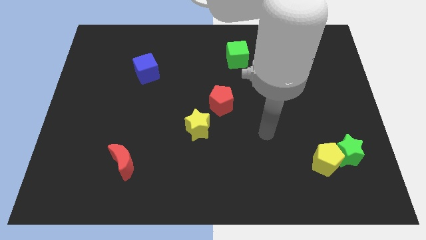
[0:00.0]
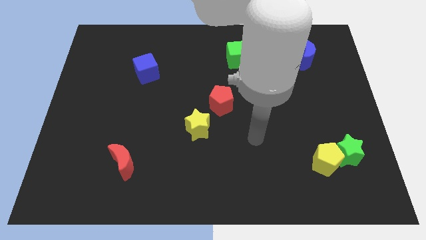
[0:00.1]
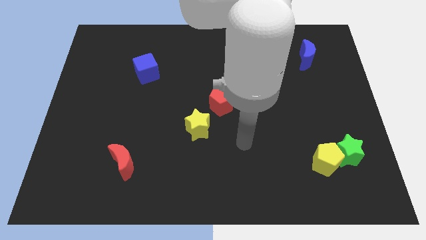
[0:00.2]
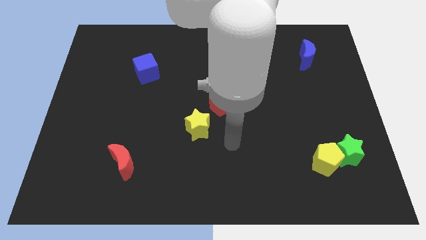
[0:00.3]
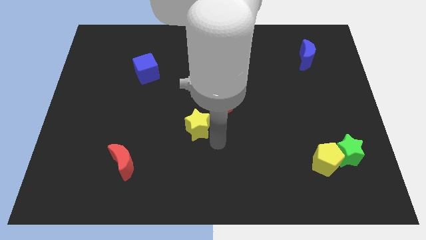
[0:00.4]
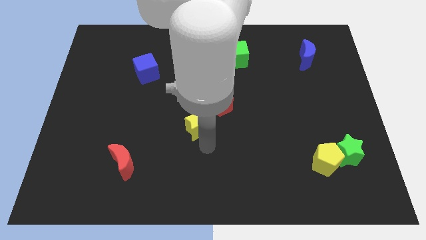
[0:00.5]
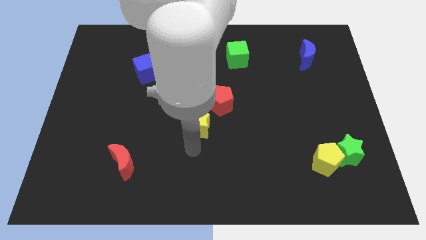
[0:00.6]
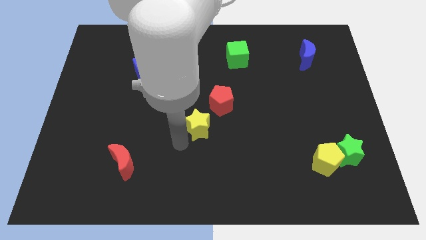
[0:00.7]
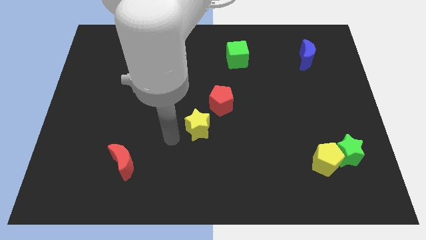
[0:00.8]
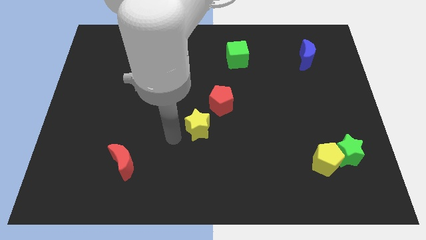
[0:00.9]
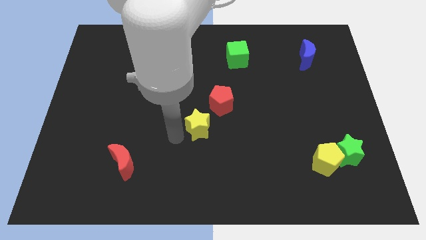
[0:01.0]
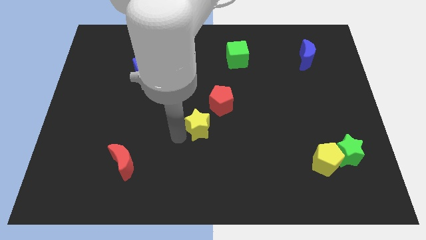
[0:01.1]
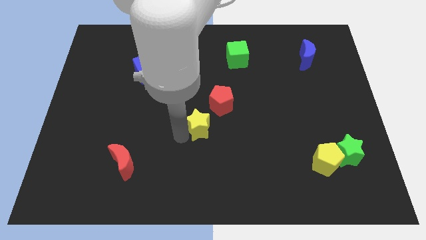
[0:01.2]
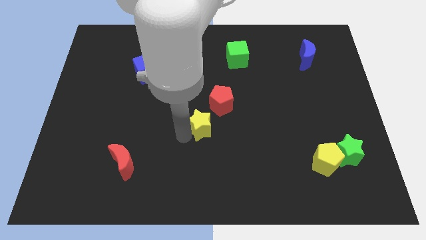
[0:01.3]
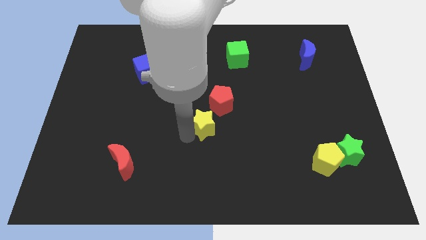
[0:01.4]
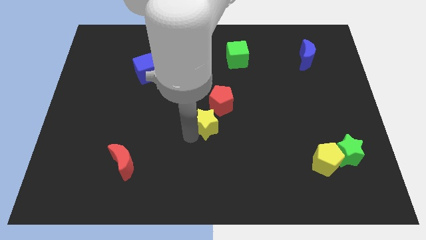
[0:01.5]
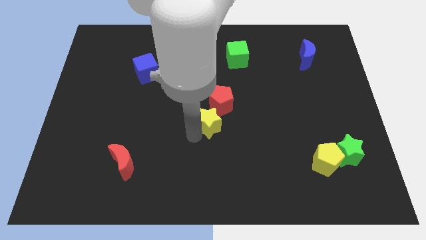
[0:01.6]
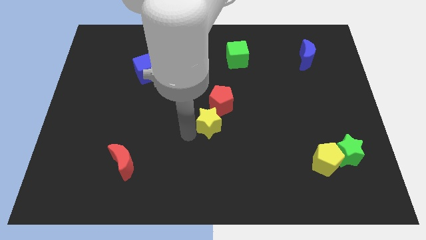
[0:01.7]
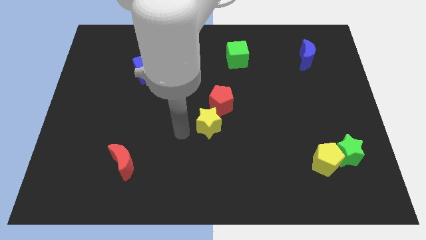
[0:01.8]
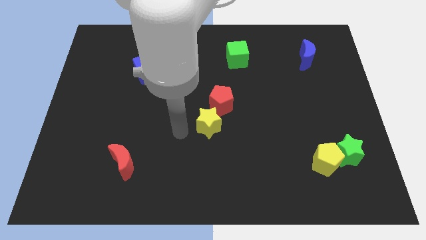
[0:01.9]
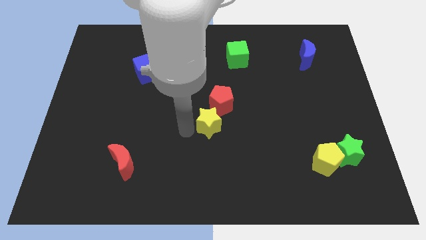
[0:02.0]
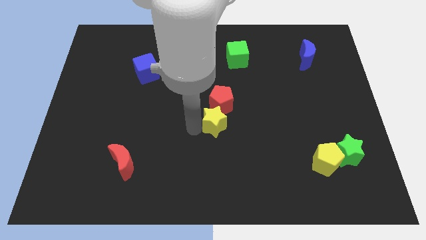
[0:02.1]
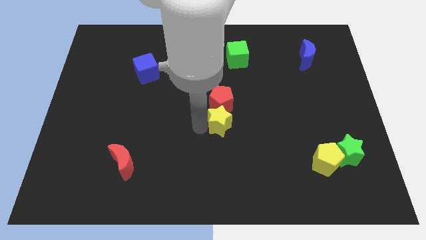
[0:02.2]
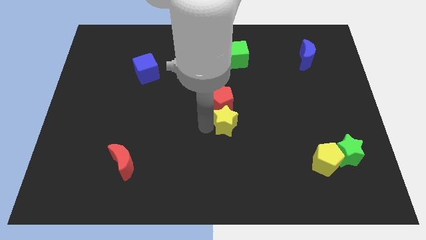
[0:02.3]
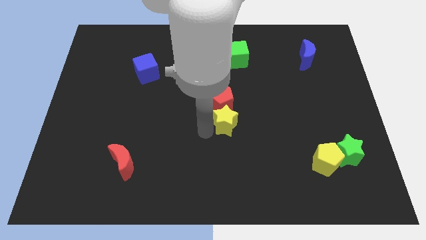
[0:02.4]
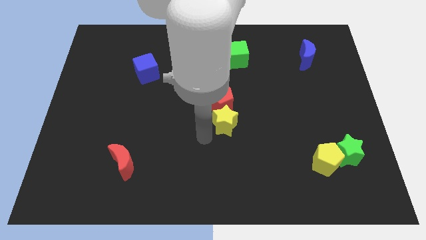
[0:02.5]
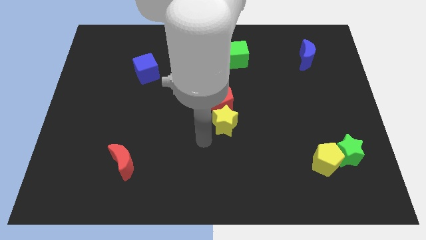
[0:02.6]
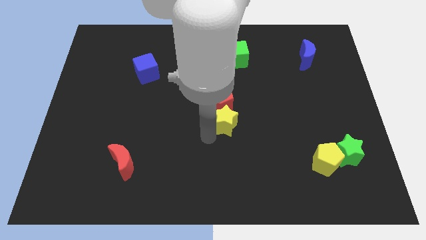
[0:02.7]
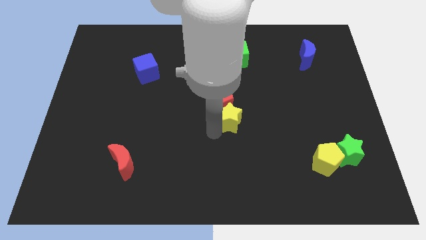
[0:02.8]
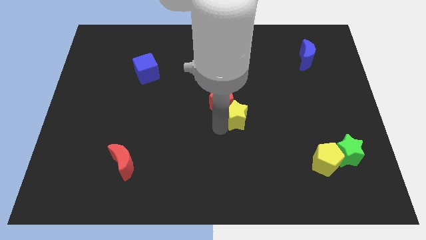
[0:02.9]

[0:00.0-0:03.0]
move the yellow star upwards and then to the right a little bit

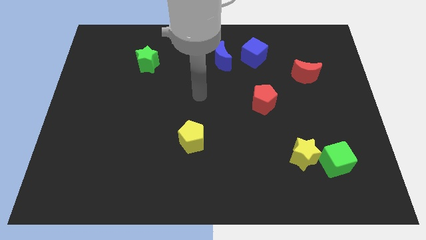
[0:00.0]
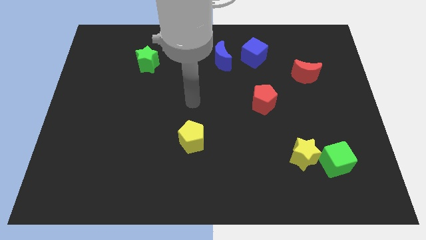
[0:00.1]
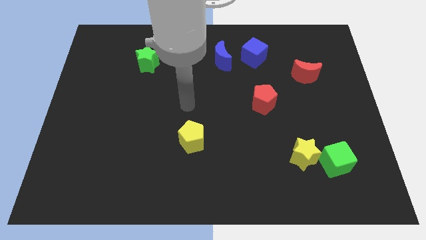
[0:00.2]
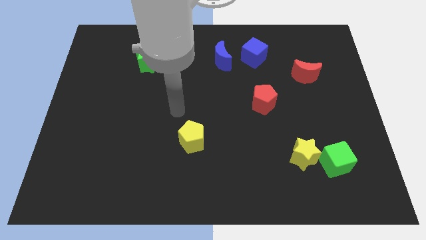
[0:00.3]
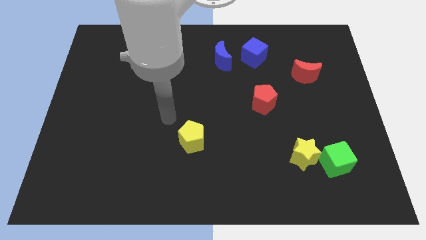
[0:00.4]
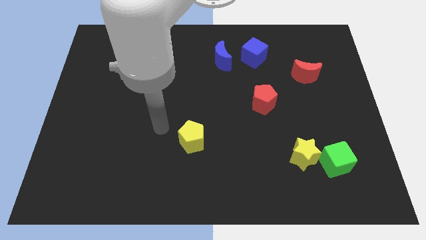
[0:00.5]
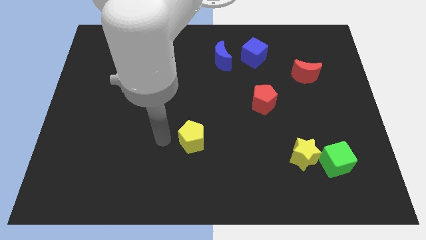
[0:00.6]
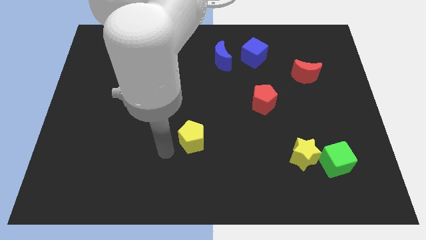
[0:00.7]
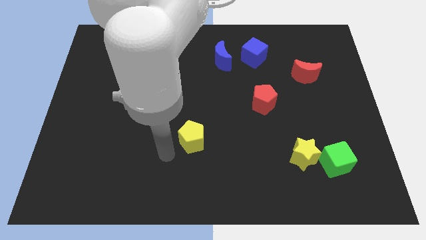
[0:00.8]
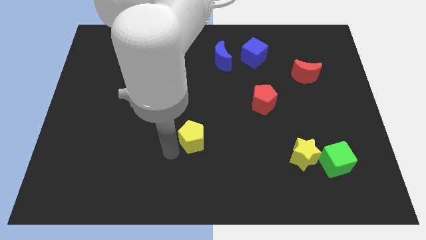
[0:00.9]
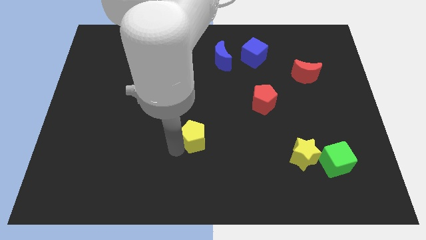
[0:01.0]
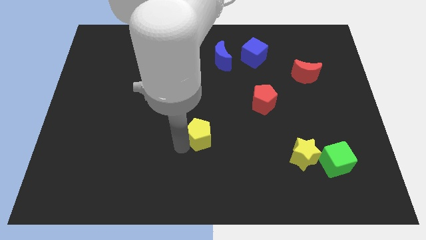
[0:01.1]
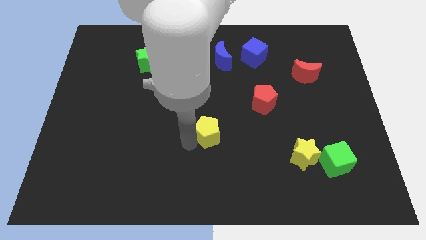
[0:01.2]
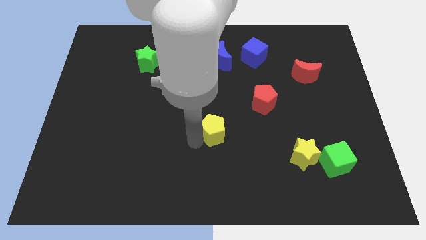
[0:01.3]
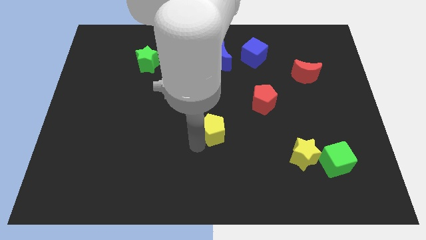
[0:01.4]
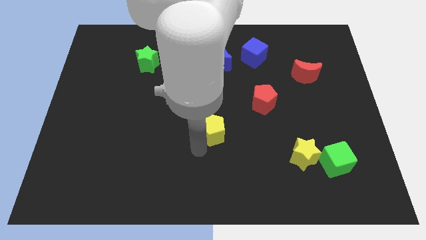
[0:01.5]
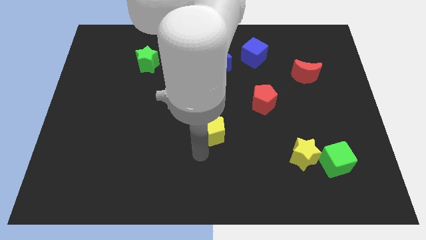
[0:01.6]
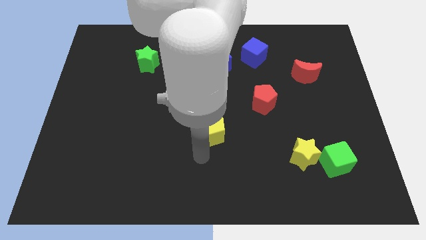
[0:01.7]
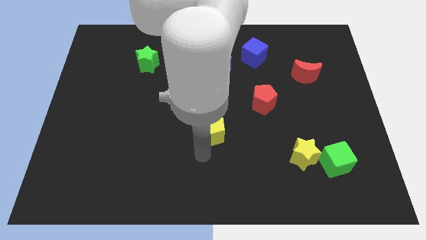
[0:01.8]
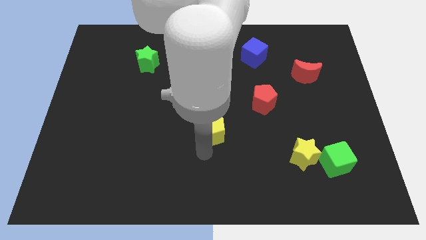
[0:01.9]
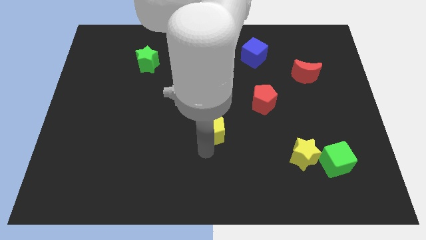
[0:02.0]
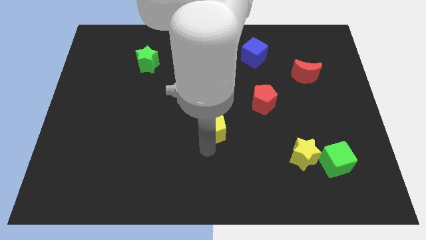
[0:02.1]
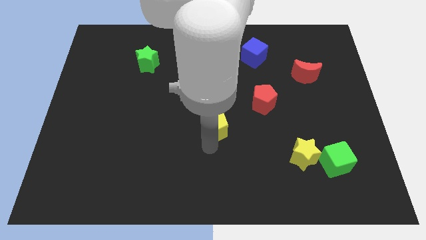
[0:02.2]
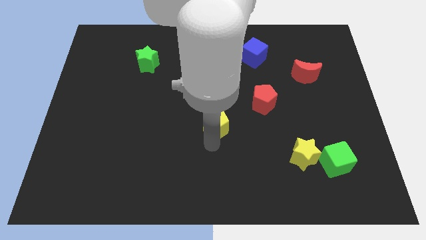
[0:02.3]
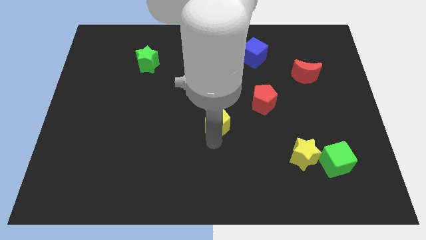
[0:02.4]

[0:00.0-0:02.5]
push the yellow pentagon upwards and right a bit

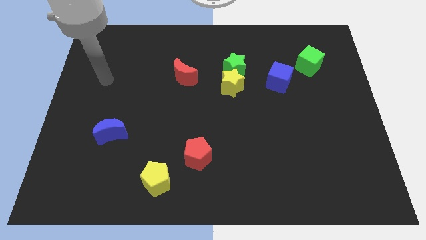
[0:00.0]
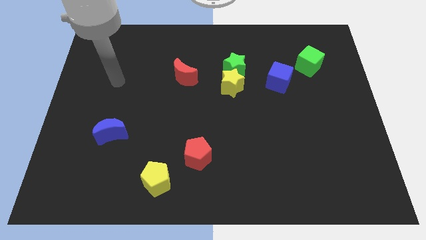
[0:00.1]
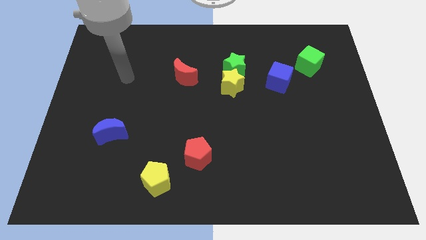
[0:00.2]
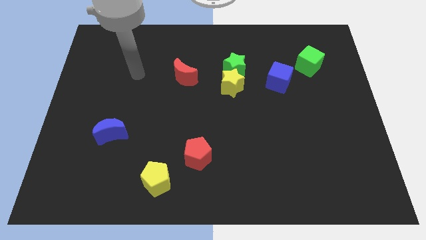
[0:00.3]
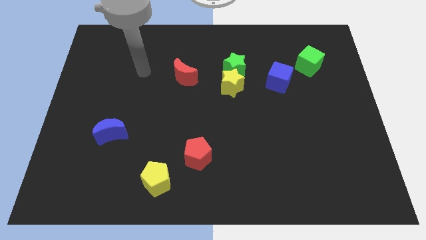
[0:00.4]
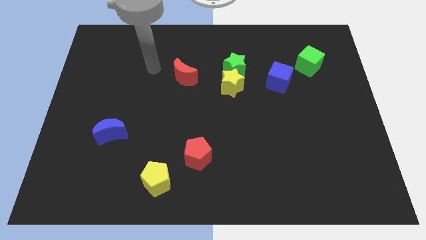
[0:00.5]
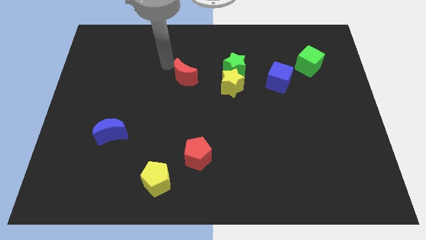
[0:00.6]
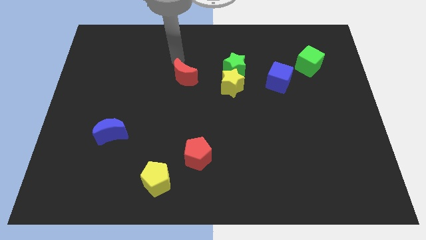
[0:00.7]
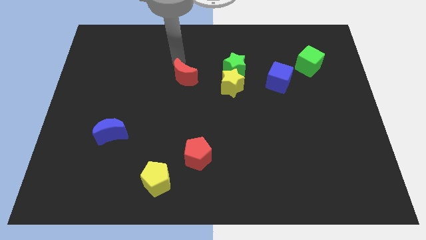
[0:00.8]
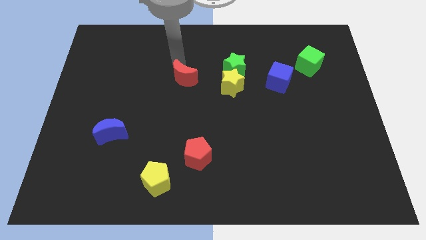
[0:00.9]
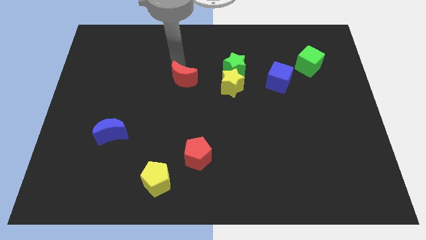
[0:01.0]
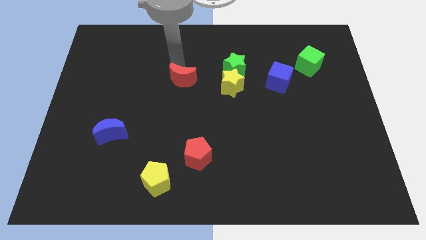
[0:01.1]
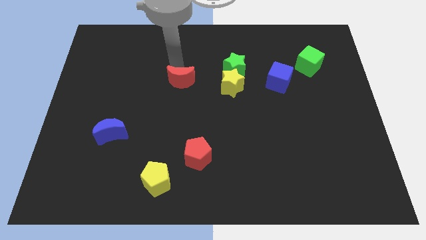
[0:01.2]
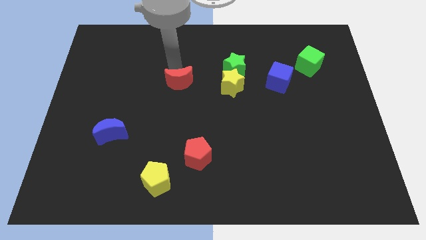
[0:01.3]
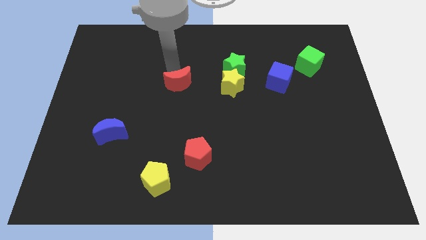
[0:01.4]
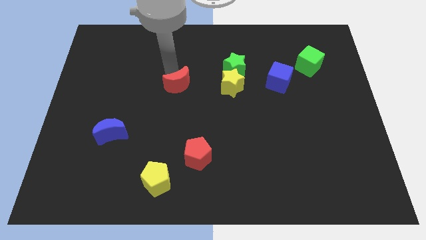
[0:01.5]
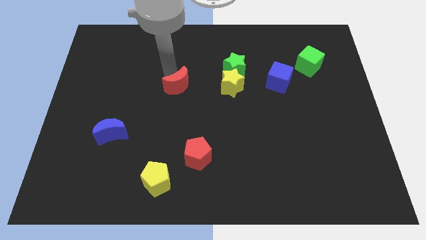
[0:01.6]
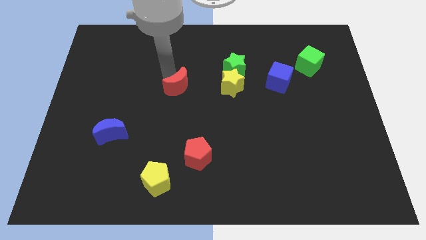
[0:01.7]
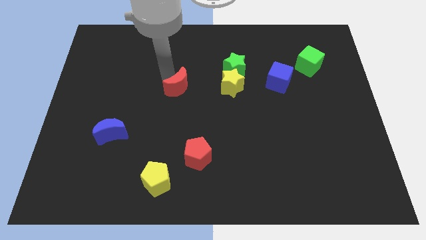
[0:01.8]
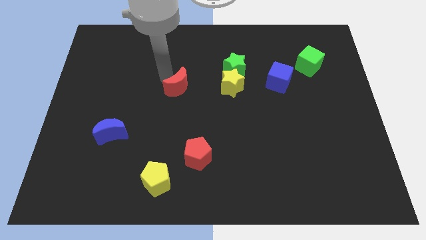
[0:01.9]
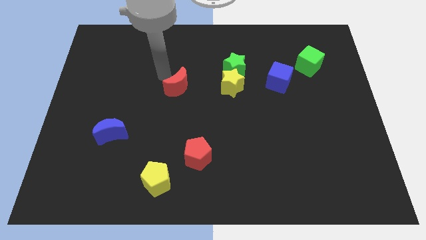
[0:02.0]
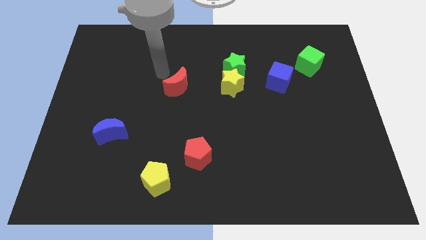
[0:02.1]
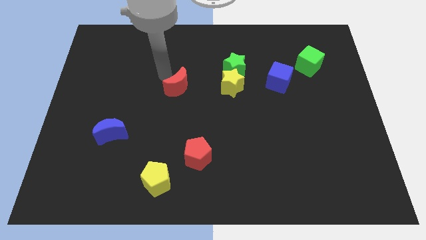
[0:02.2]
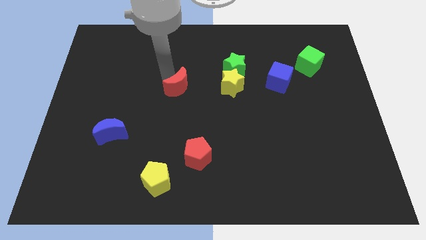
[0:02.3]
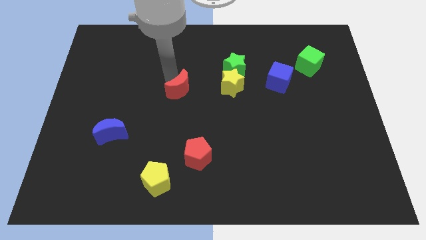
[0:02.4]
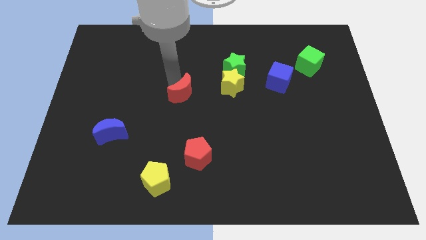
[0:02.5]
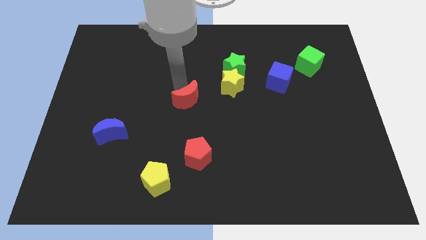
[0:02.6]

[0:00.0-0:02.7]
slightly move the red moon down
